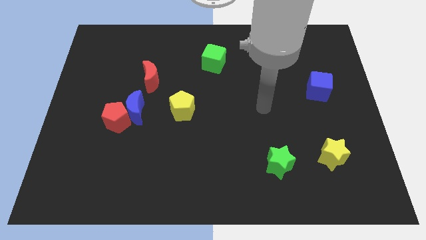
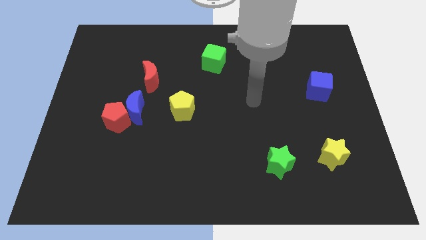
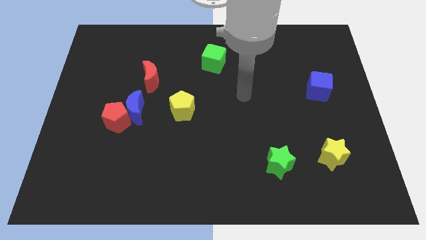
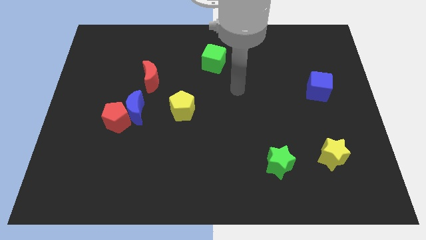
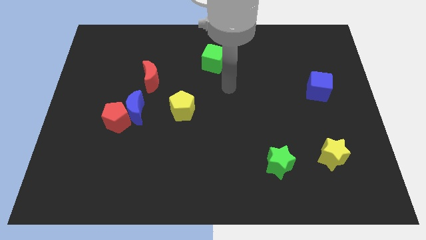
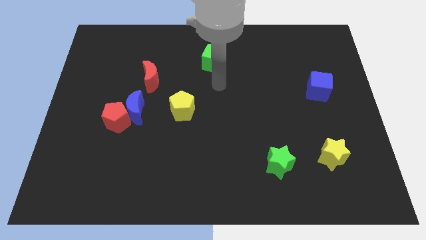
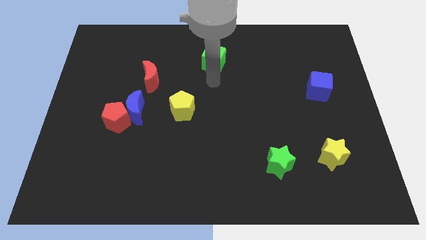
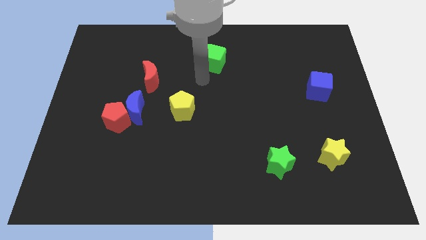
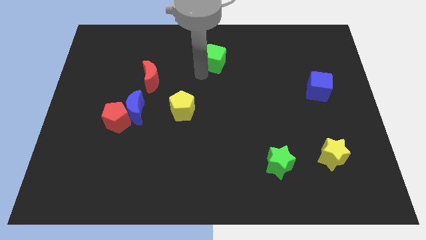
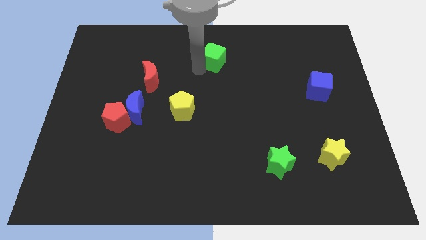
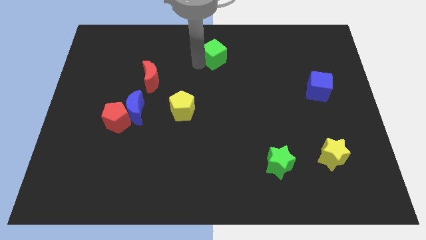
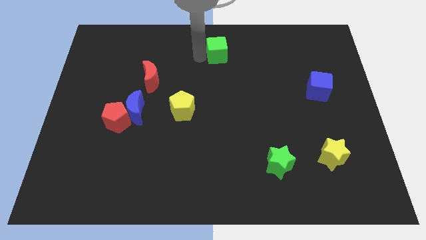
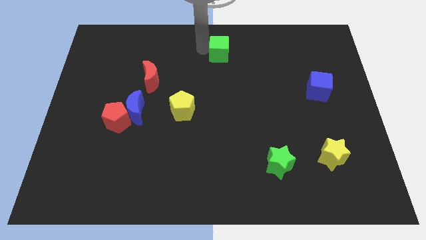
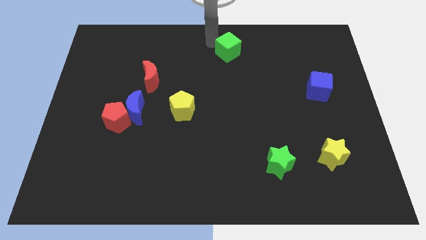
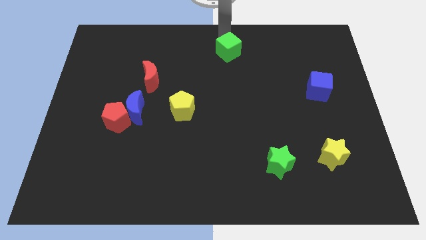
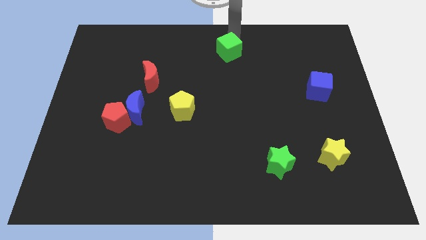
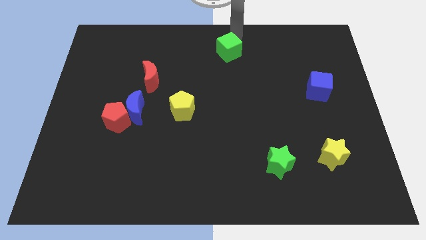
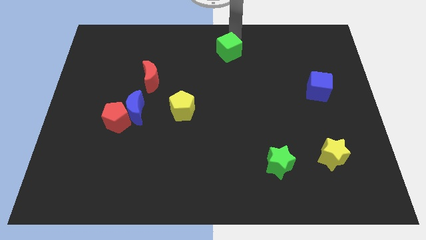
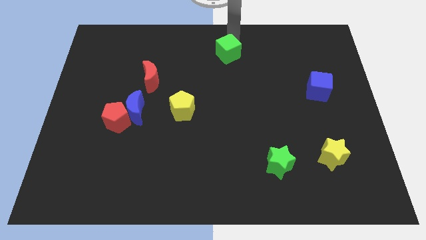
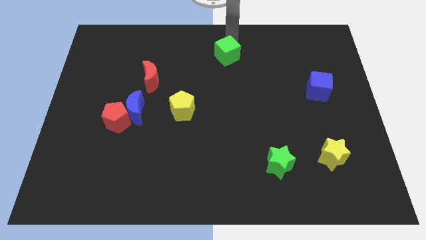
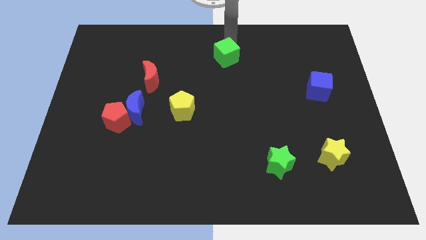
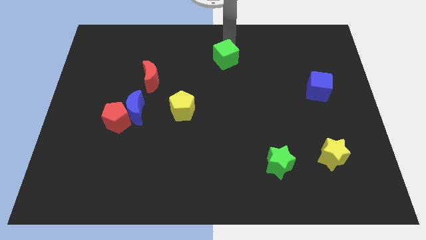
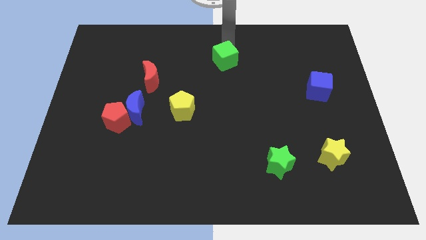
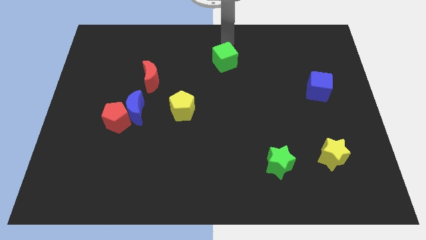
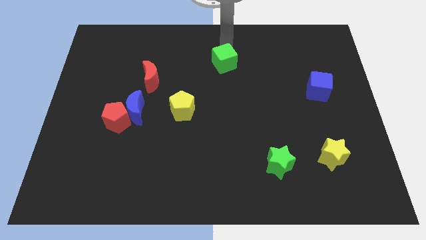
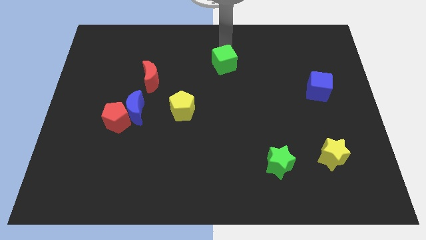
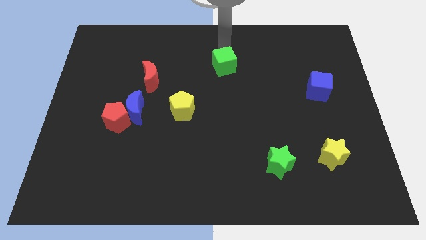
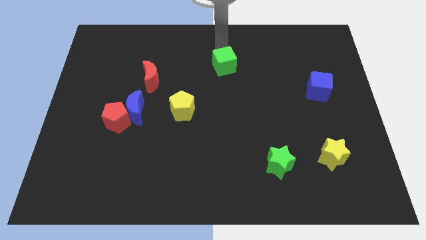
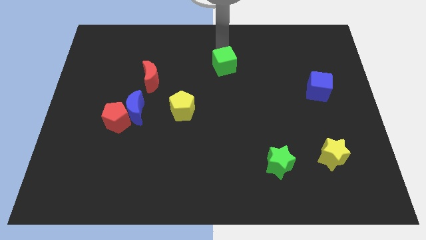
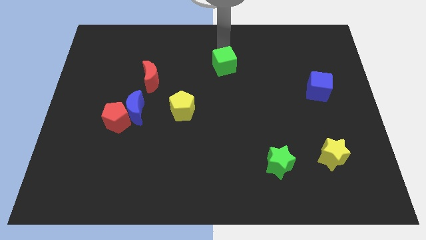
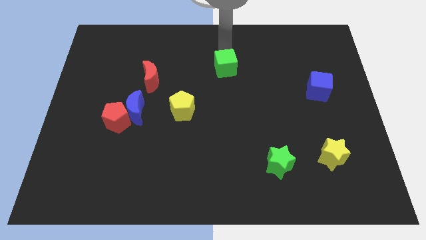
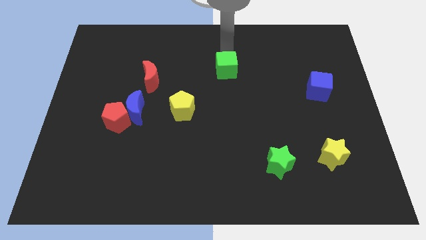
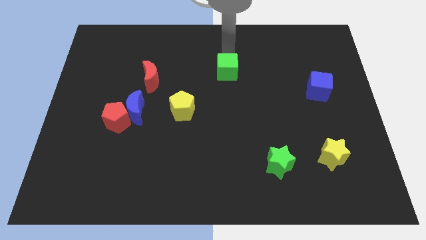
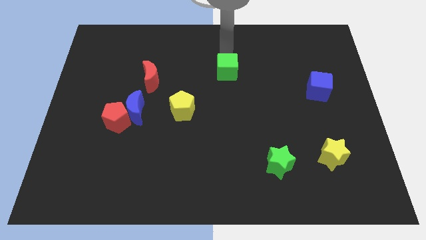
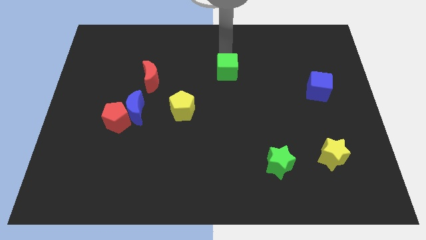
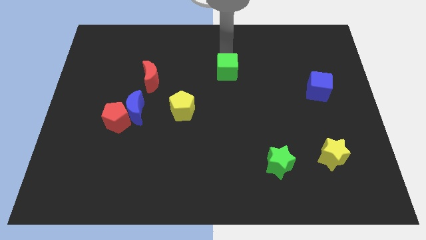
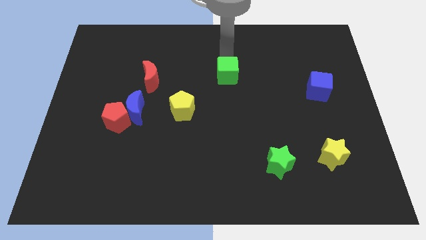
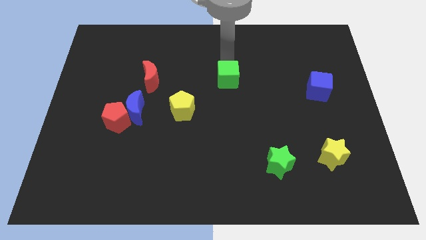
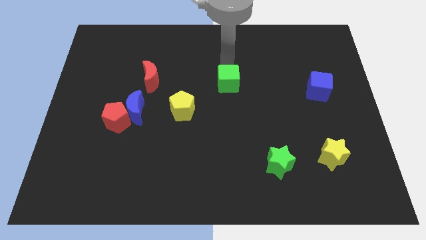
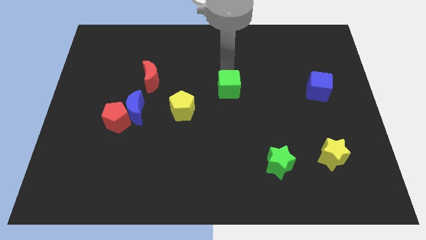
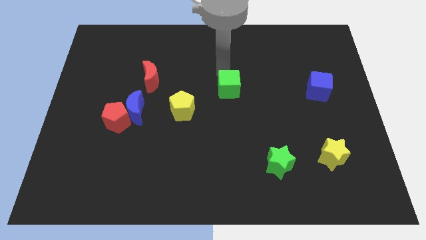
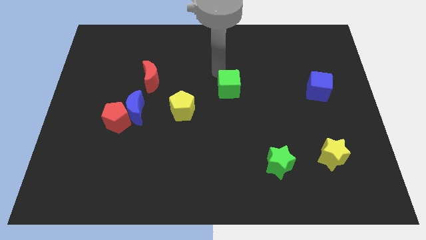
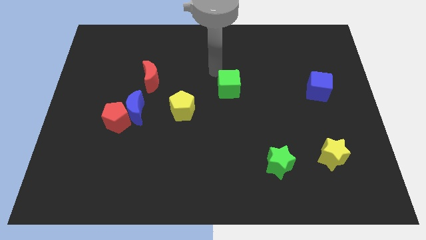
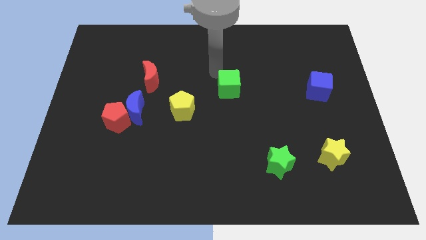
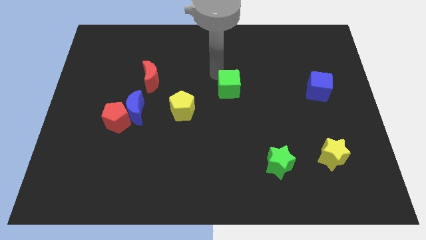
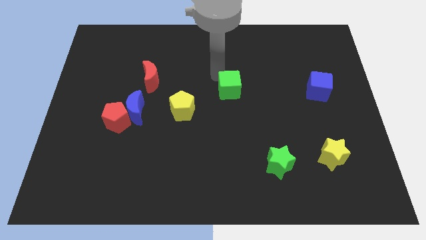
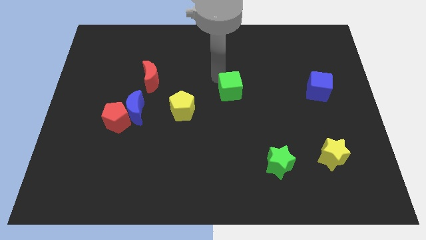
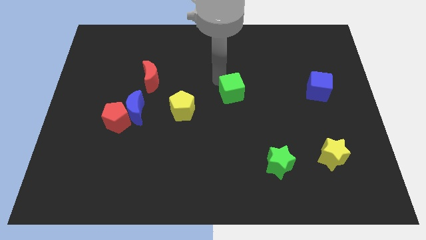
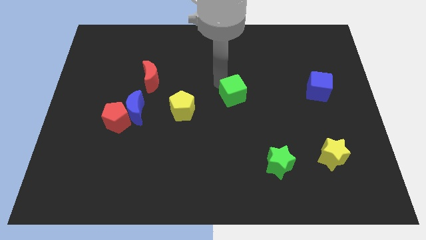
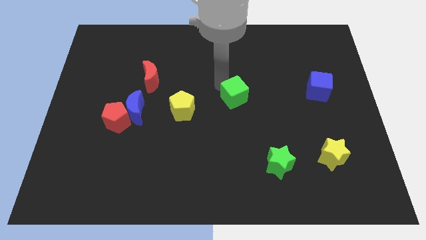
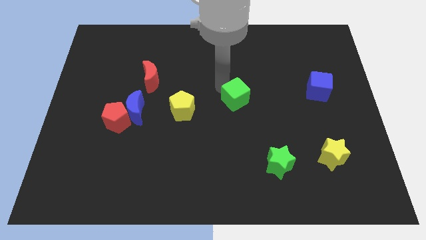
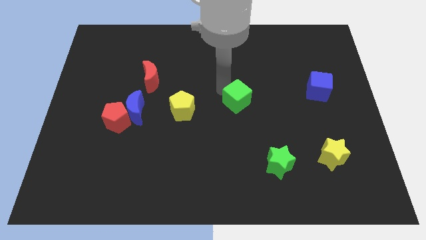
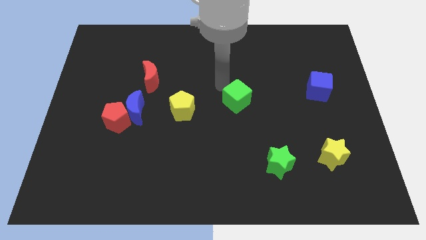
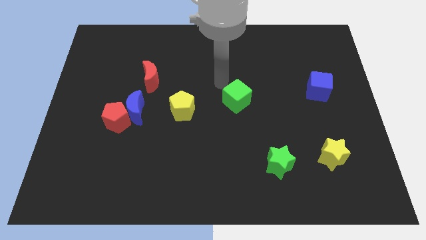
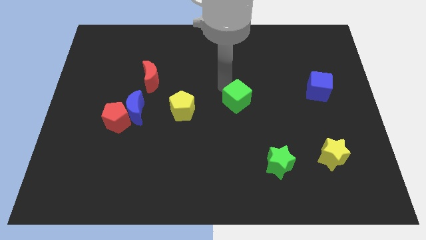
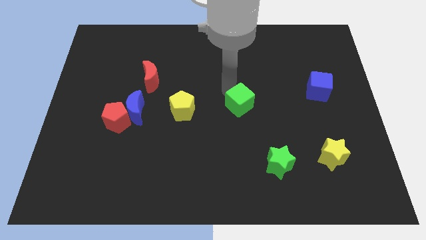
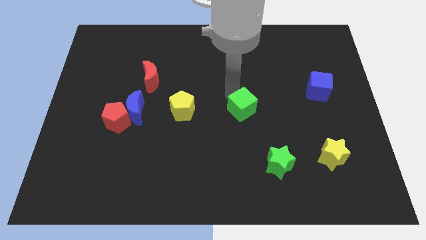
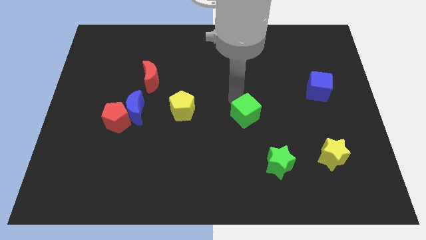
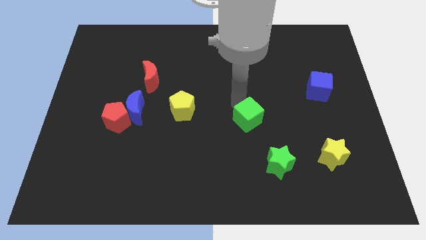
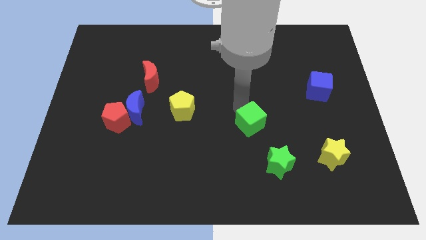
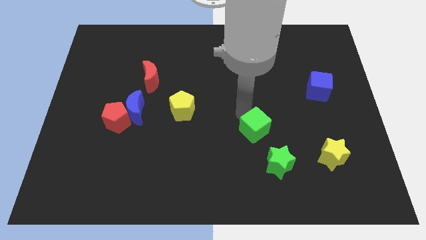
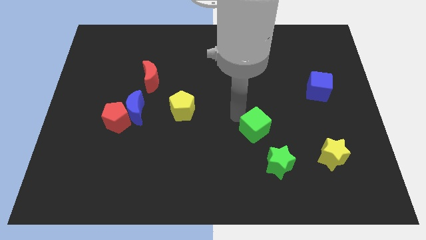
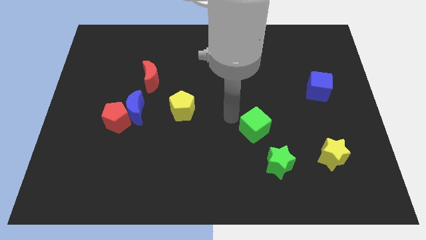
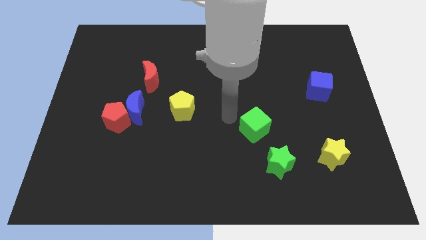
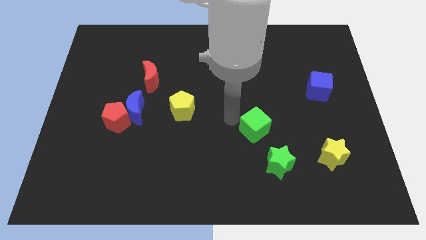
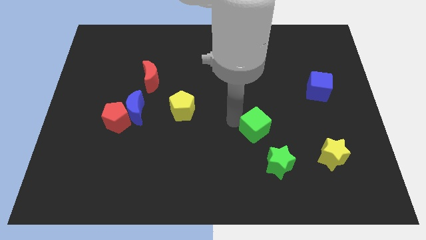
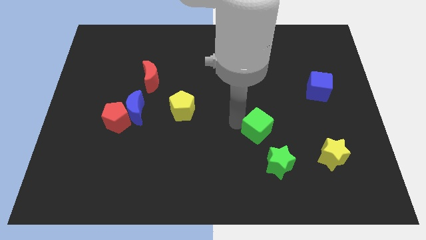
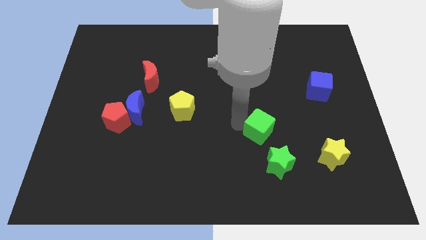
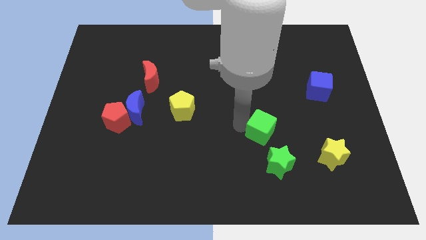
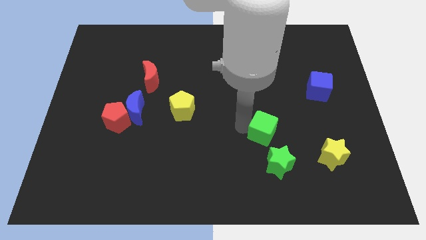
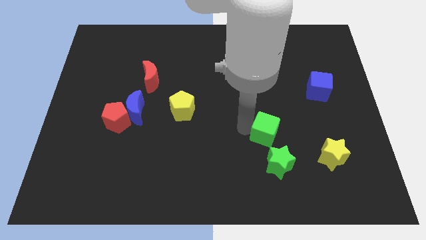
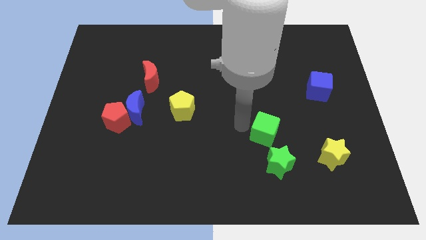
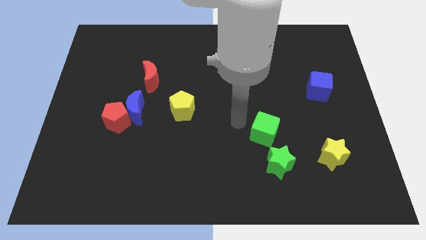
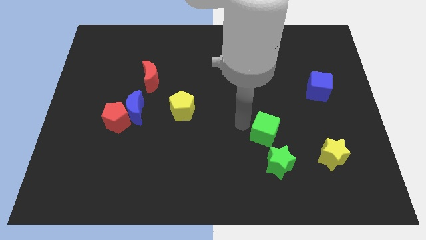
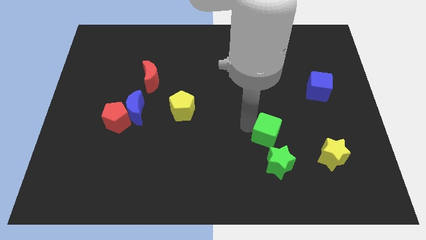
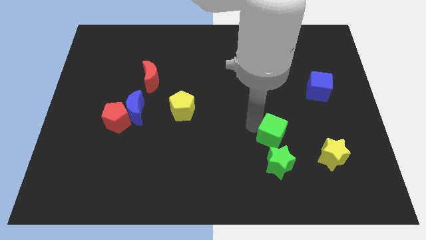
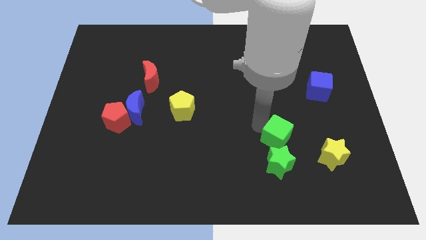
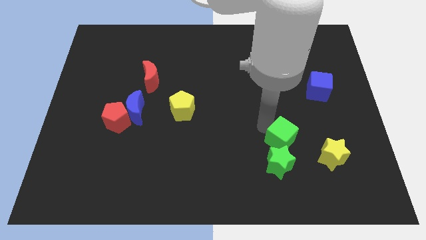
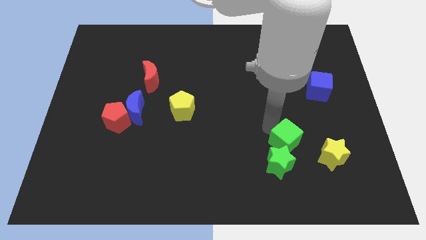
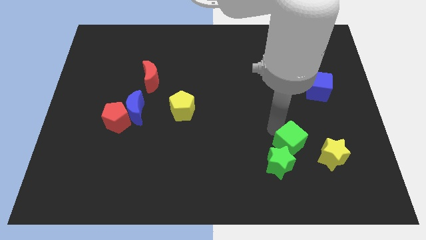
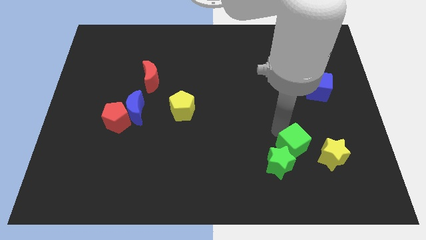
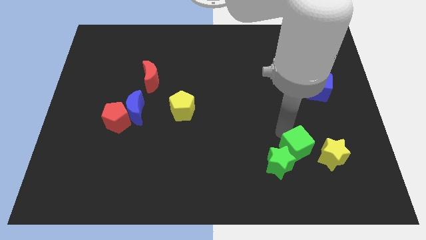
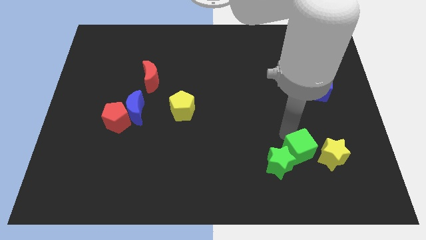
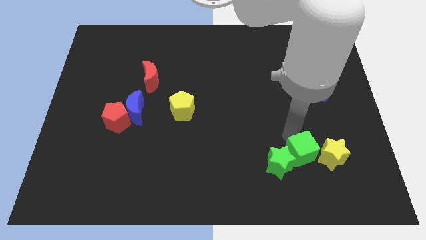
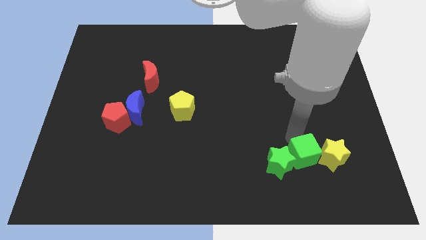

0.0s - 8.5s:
slide the green cube to the bottom left of the yellow star
